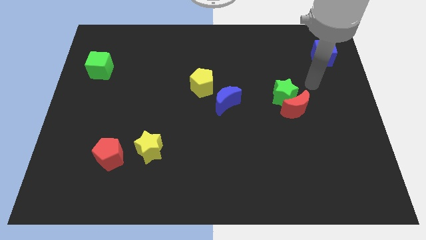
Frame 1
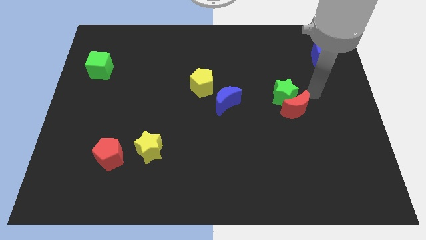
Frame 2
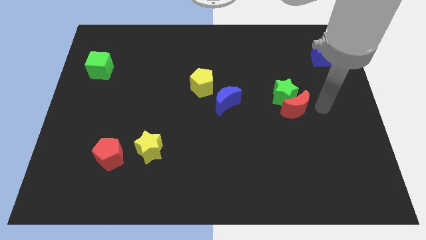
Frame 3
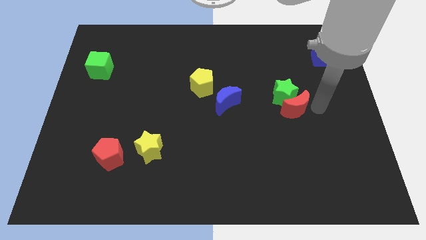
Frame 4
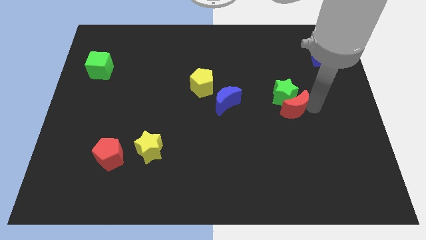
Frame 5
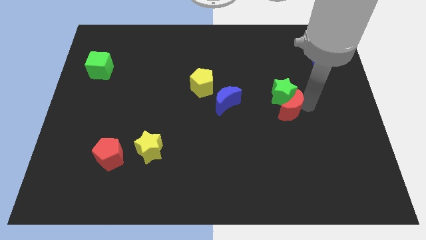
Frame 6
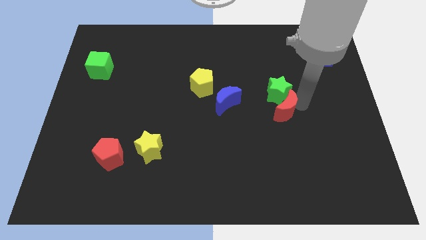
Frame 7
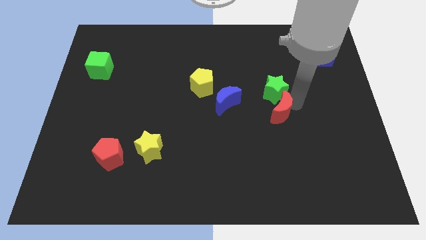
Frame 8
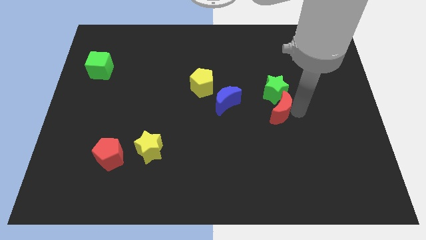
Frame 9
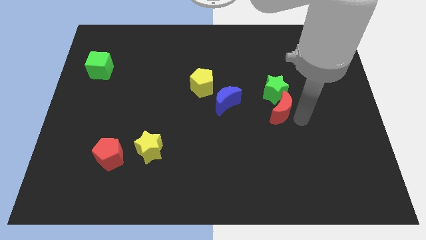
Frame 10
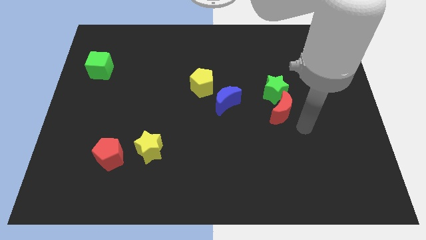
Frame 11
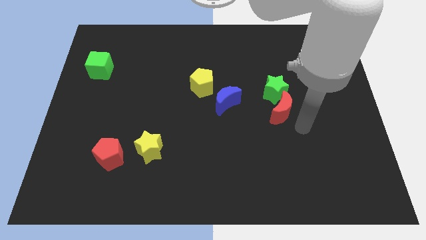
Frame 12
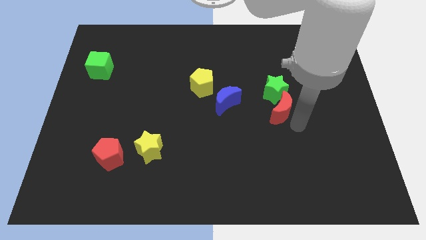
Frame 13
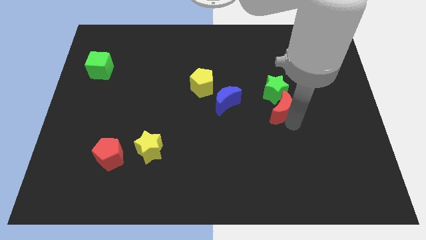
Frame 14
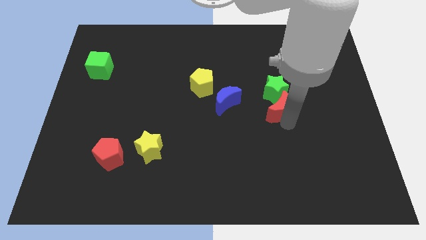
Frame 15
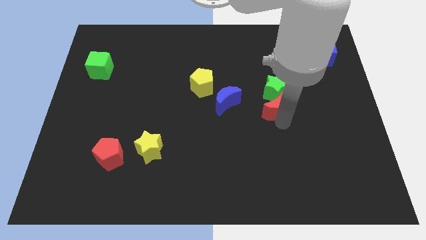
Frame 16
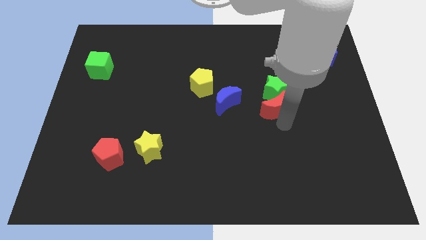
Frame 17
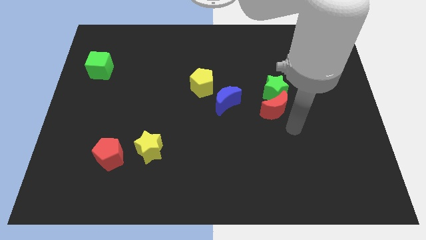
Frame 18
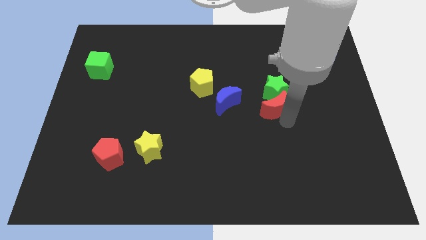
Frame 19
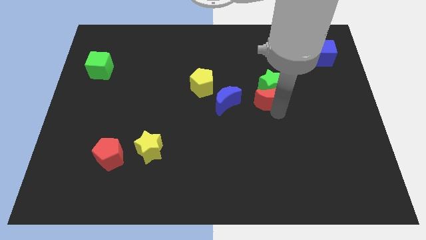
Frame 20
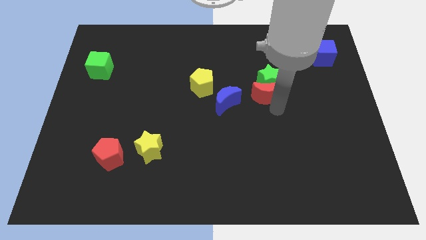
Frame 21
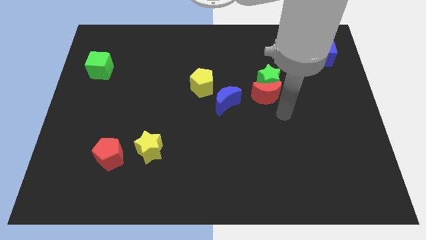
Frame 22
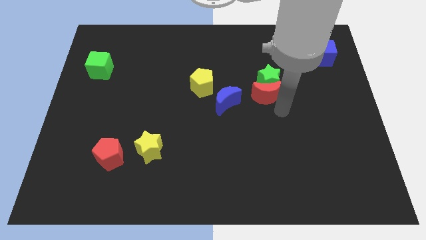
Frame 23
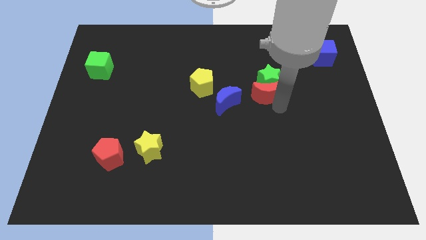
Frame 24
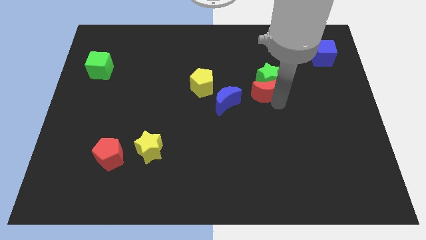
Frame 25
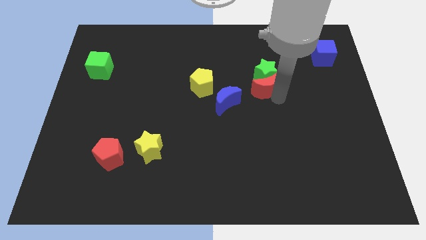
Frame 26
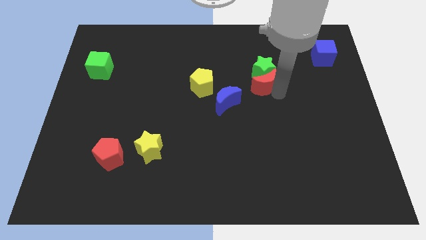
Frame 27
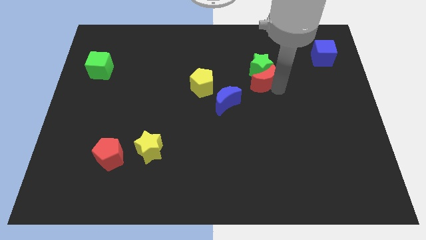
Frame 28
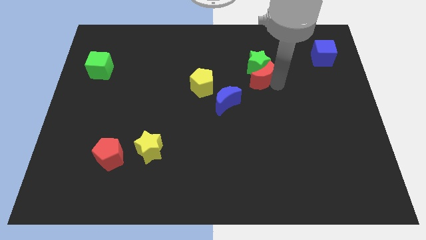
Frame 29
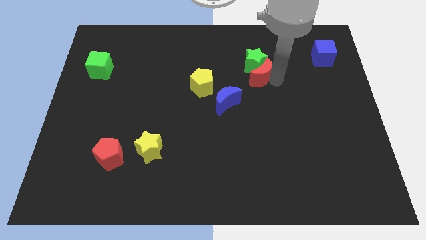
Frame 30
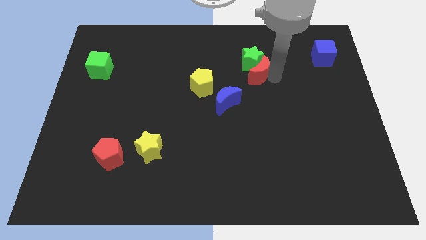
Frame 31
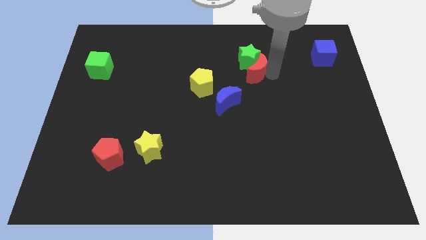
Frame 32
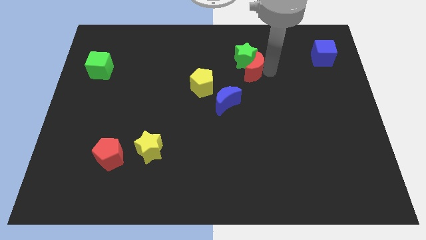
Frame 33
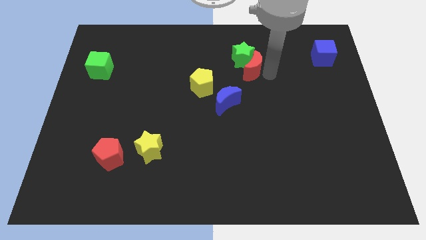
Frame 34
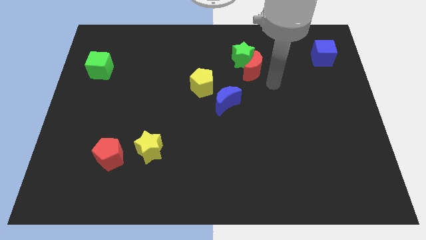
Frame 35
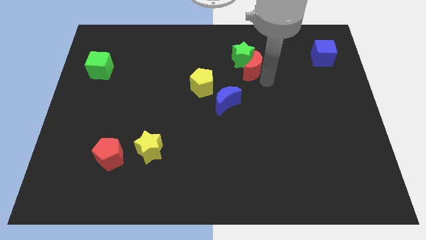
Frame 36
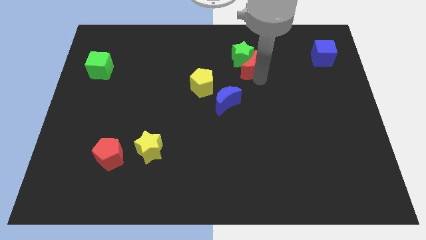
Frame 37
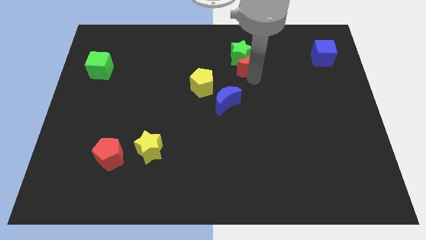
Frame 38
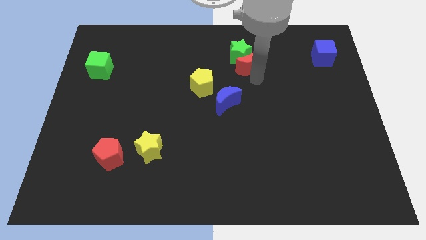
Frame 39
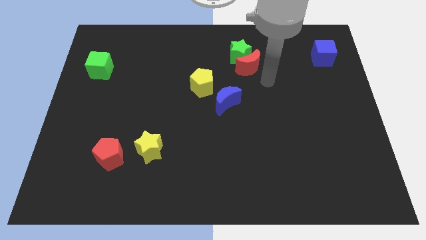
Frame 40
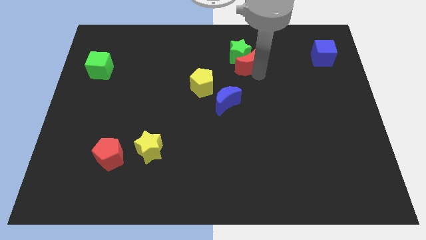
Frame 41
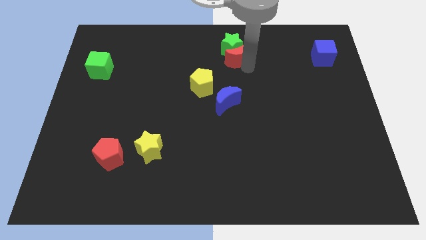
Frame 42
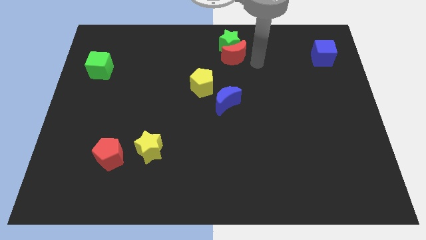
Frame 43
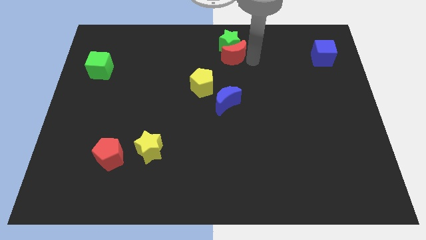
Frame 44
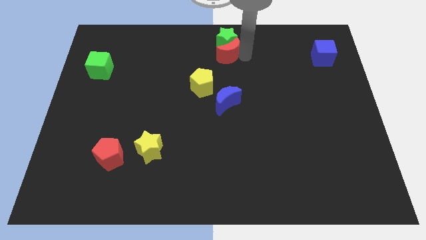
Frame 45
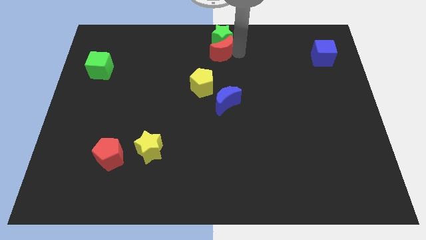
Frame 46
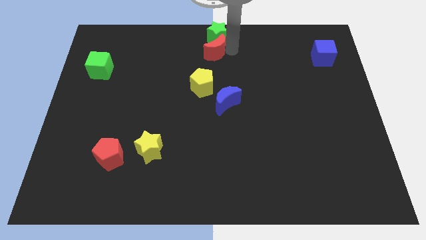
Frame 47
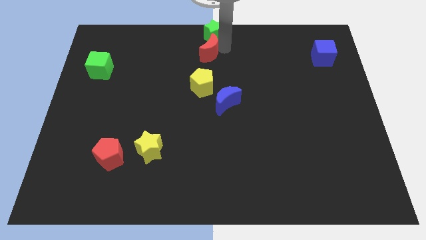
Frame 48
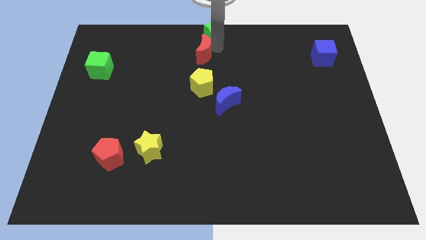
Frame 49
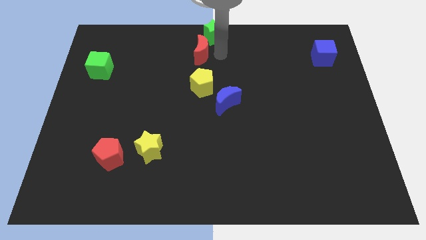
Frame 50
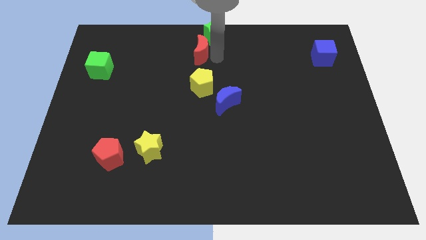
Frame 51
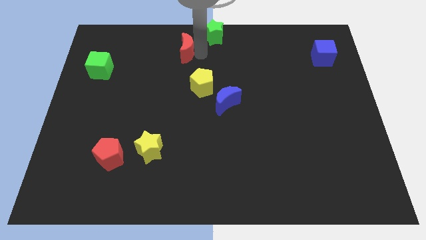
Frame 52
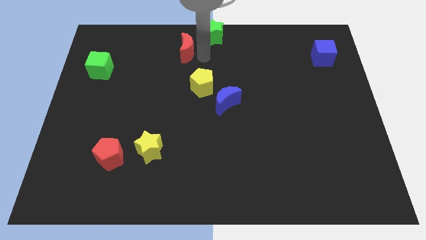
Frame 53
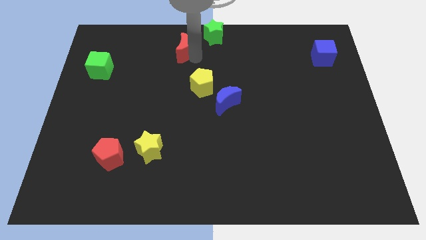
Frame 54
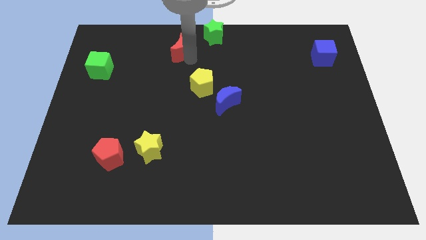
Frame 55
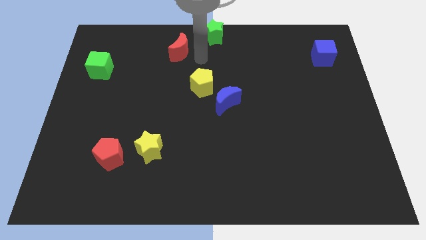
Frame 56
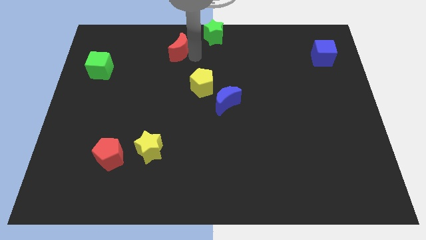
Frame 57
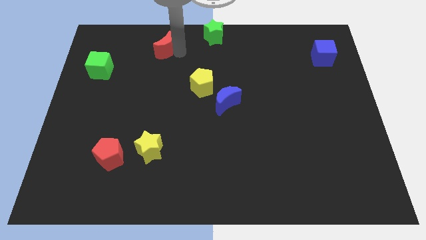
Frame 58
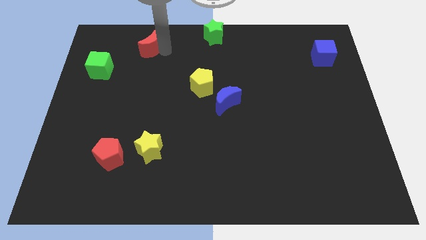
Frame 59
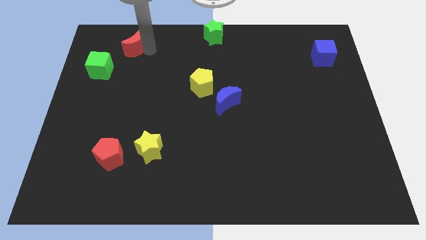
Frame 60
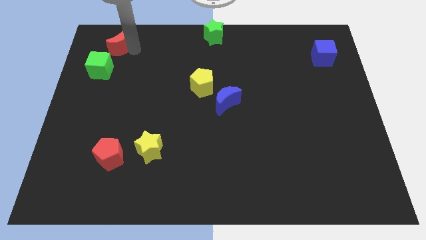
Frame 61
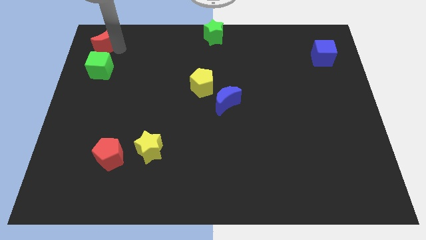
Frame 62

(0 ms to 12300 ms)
slide the red moon to the top left of the board
